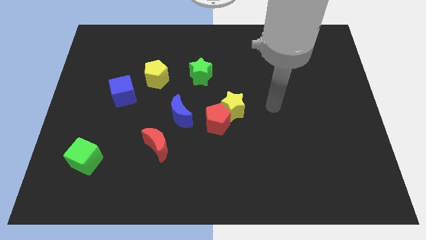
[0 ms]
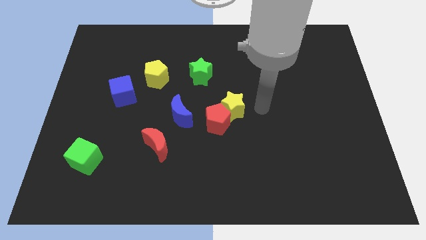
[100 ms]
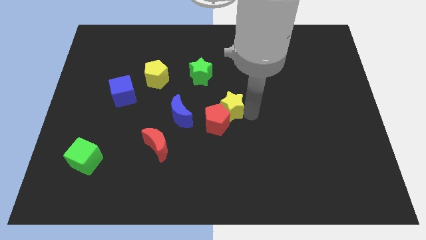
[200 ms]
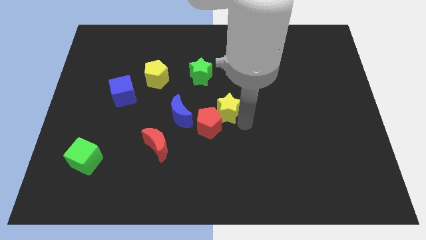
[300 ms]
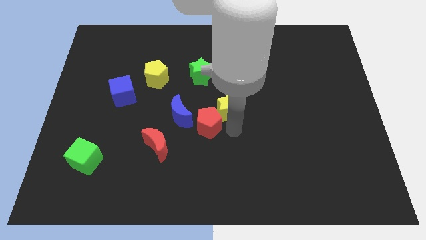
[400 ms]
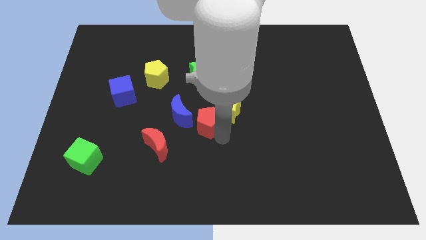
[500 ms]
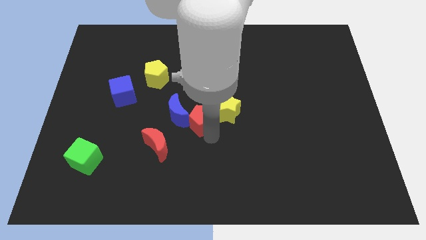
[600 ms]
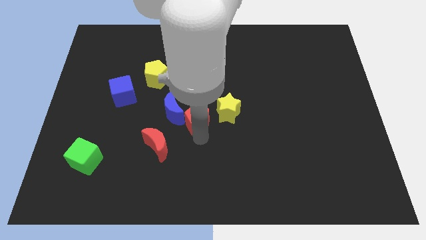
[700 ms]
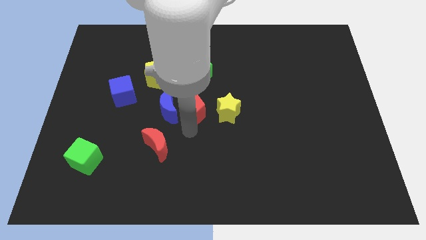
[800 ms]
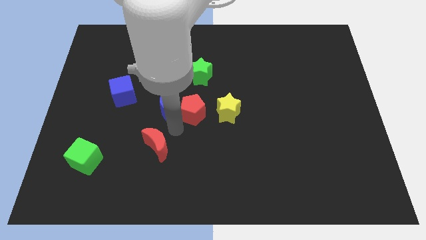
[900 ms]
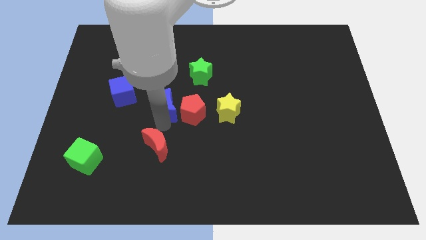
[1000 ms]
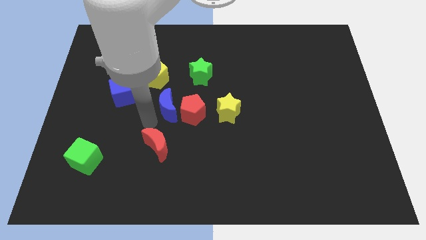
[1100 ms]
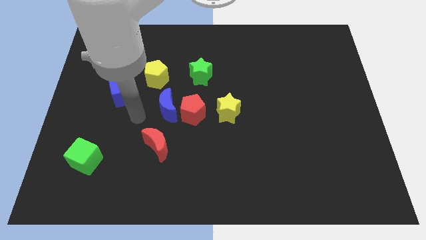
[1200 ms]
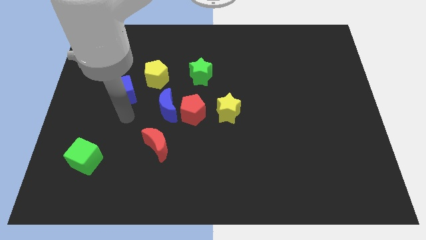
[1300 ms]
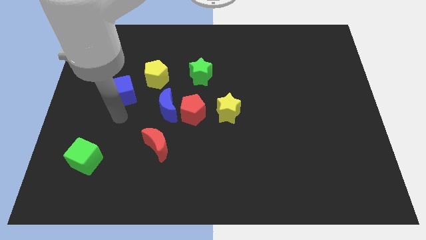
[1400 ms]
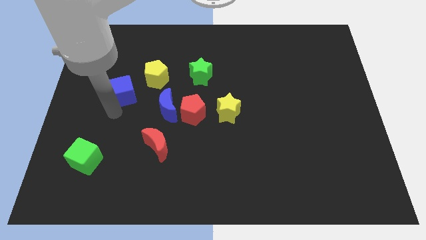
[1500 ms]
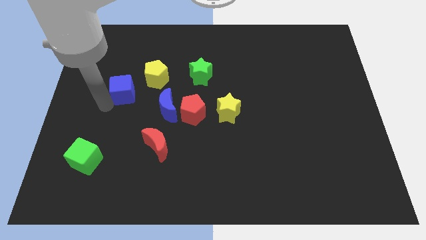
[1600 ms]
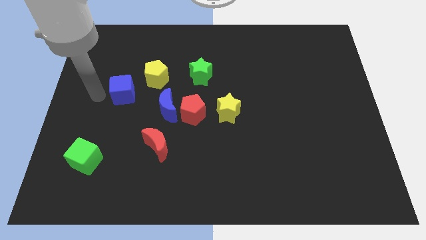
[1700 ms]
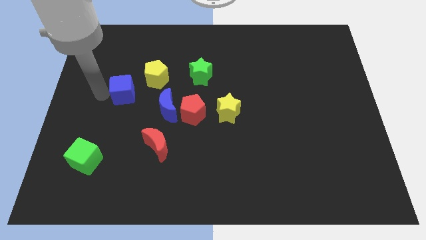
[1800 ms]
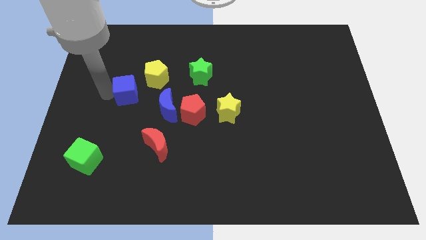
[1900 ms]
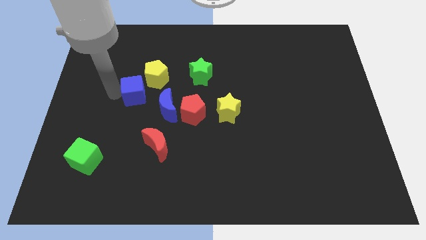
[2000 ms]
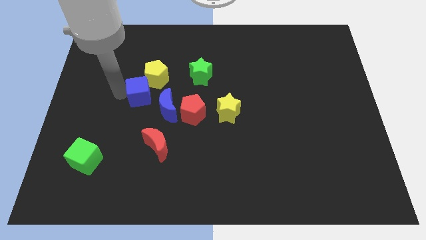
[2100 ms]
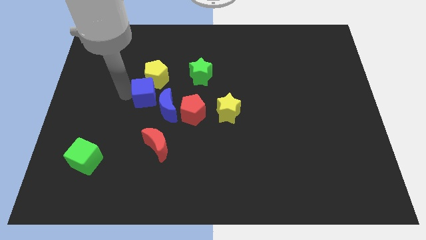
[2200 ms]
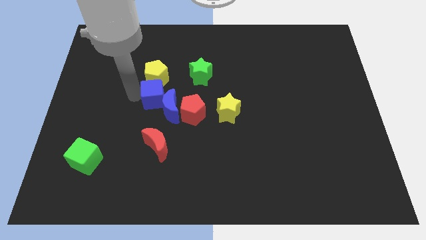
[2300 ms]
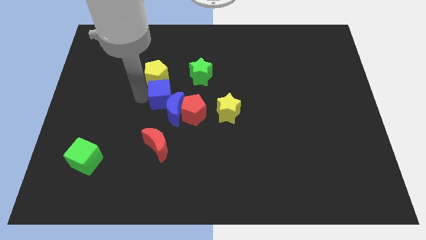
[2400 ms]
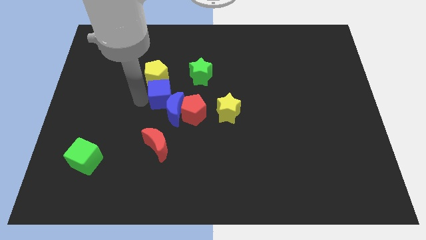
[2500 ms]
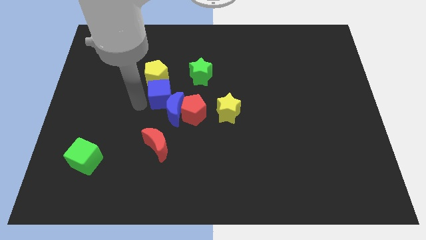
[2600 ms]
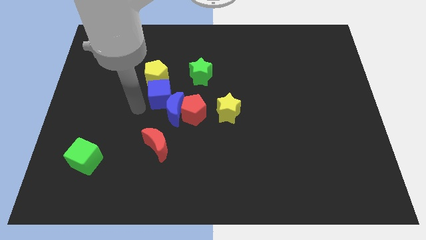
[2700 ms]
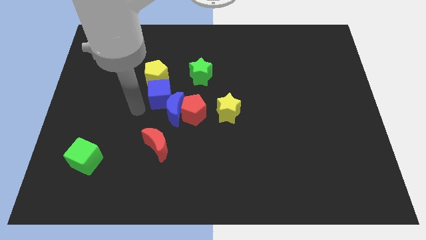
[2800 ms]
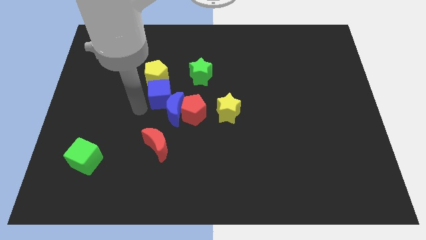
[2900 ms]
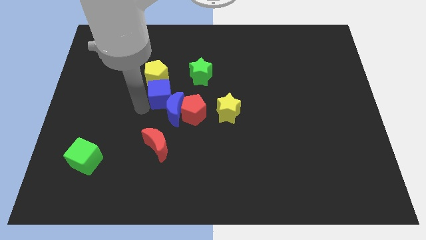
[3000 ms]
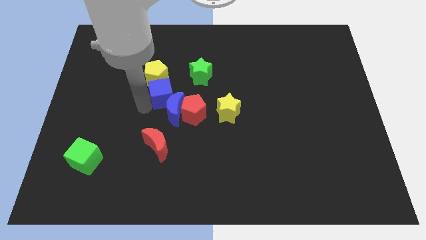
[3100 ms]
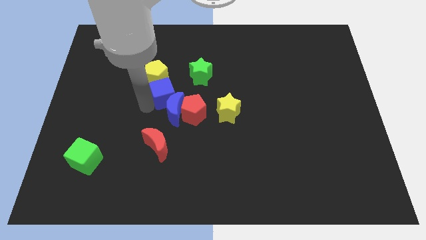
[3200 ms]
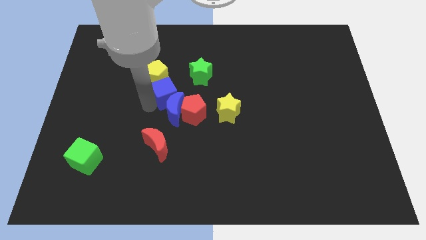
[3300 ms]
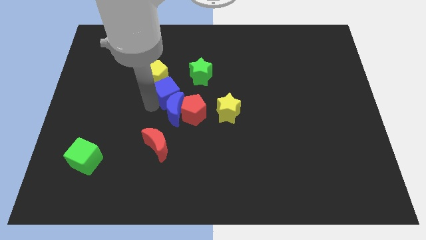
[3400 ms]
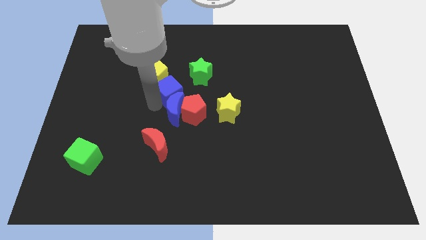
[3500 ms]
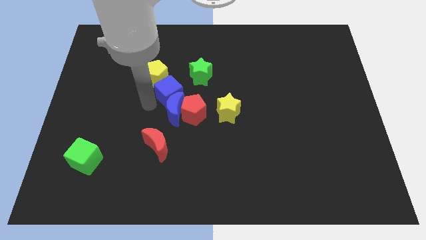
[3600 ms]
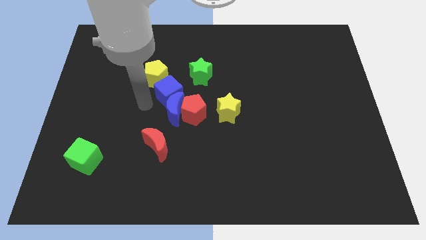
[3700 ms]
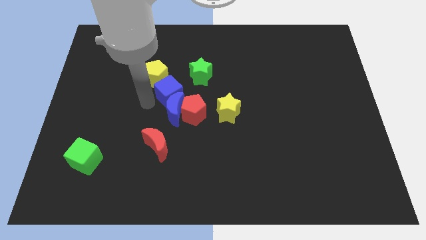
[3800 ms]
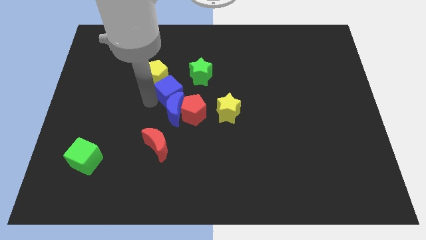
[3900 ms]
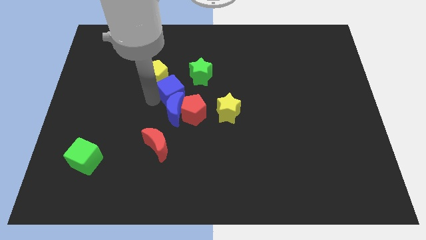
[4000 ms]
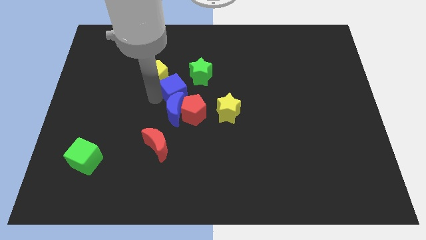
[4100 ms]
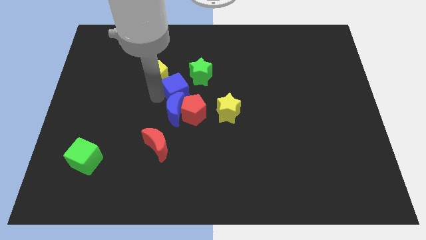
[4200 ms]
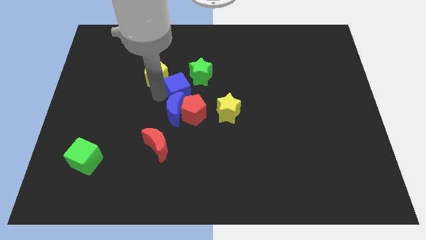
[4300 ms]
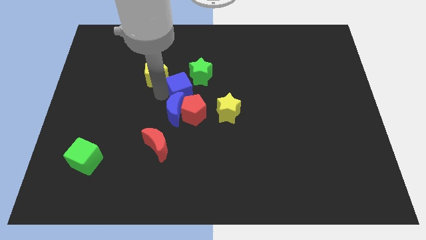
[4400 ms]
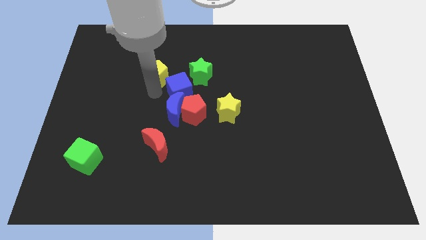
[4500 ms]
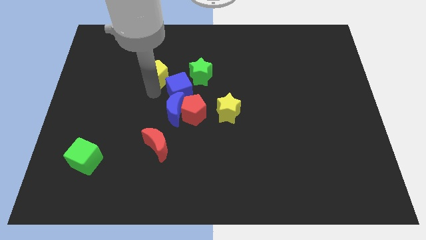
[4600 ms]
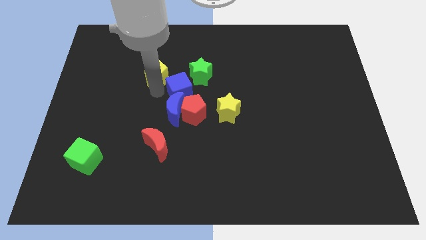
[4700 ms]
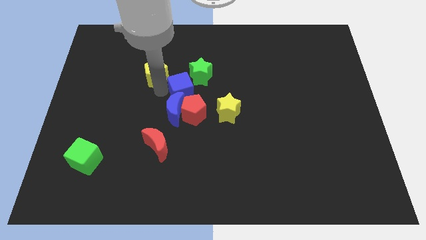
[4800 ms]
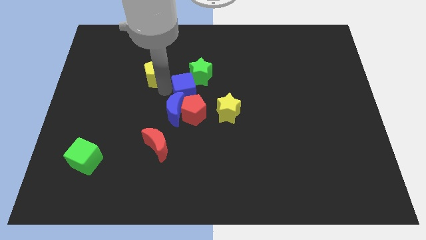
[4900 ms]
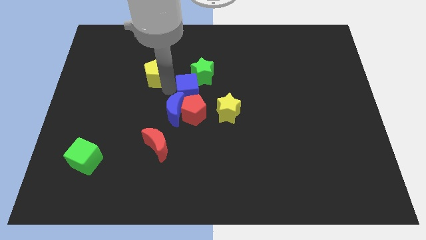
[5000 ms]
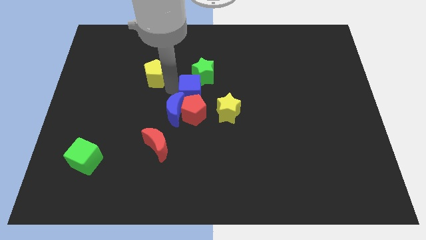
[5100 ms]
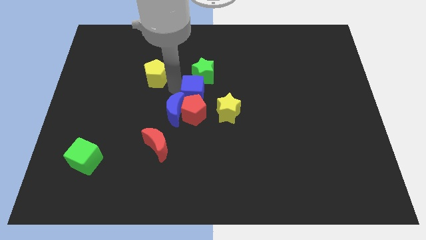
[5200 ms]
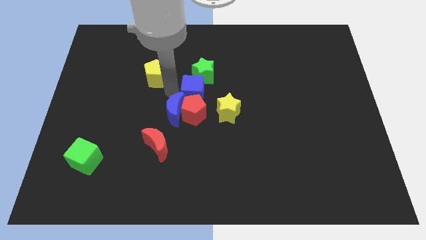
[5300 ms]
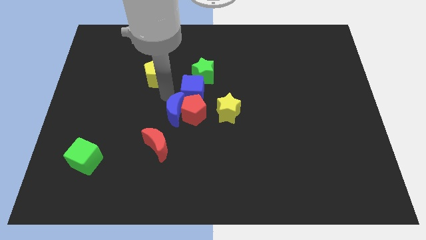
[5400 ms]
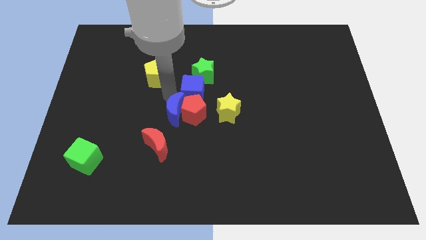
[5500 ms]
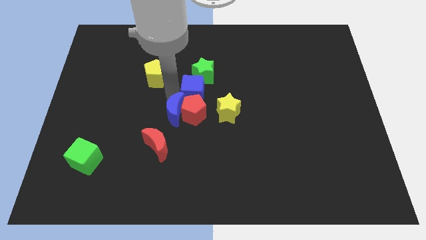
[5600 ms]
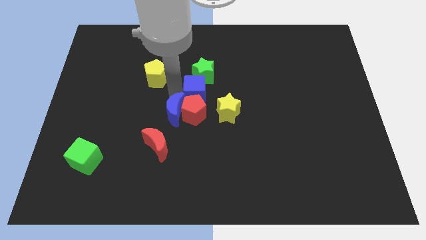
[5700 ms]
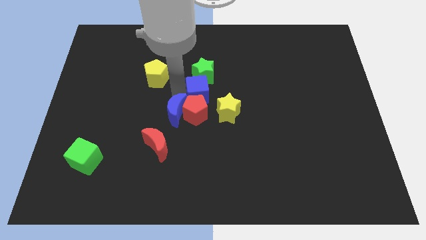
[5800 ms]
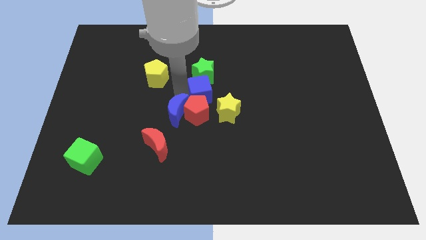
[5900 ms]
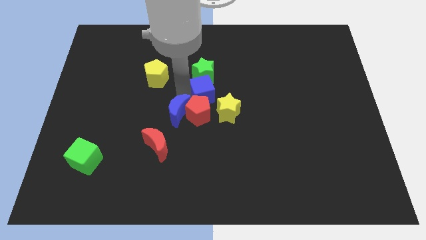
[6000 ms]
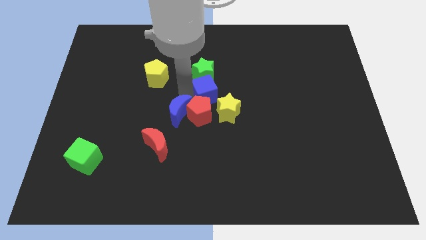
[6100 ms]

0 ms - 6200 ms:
move the blue cube right

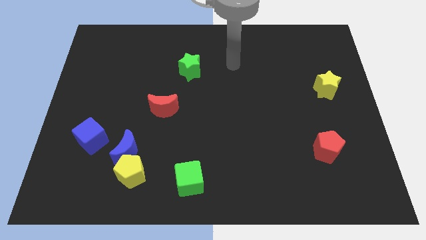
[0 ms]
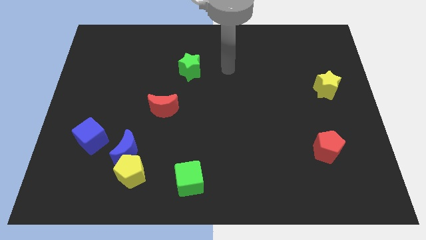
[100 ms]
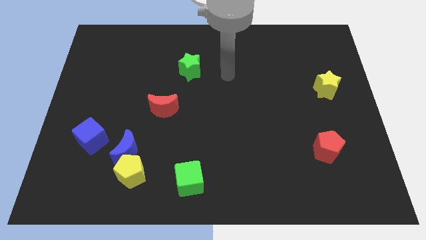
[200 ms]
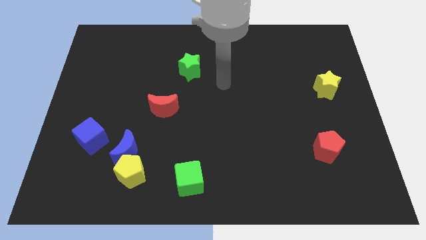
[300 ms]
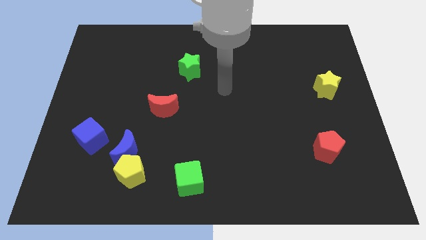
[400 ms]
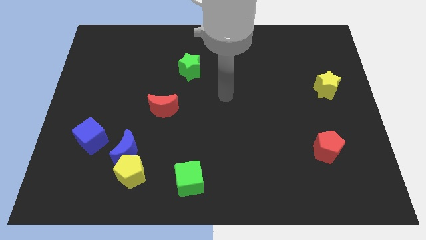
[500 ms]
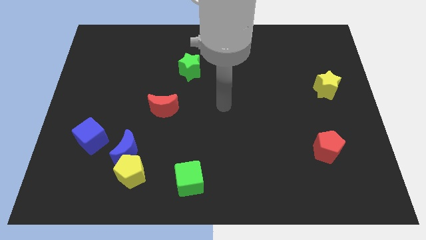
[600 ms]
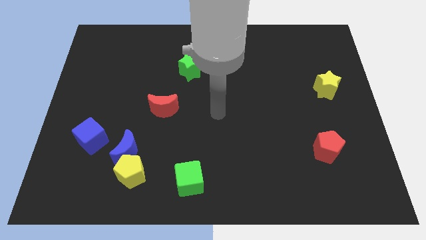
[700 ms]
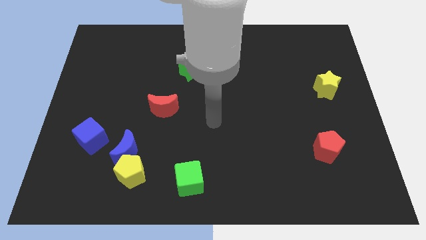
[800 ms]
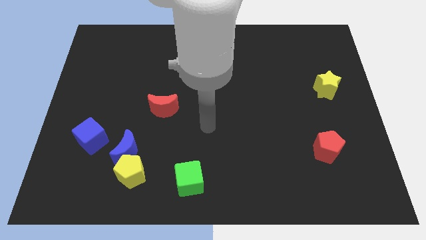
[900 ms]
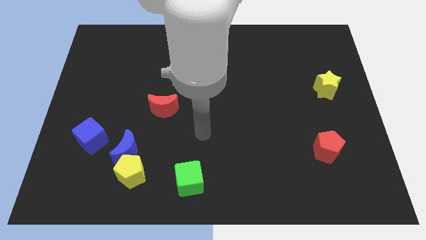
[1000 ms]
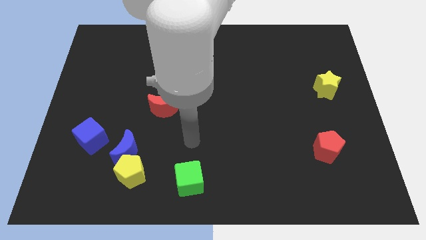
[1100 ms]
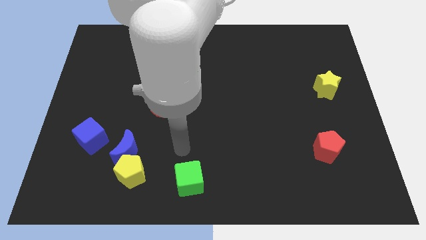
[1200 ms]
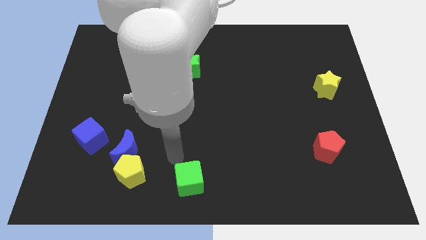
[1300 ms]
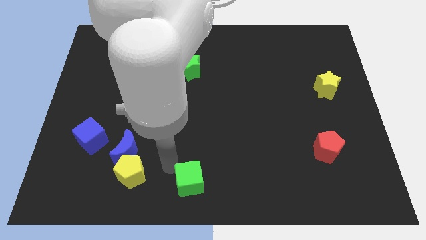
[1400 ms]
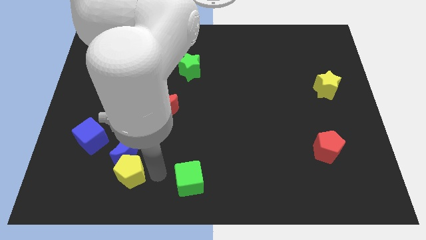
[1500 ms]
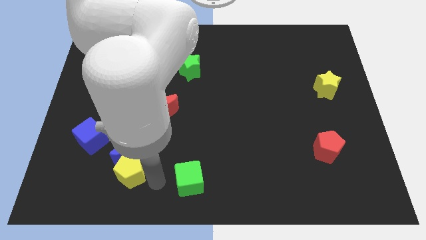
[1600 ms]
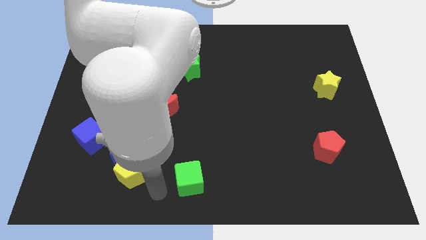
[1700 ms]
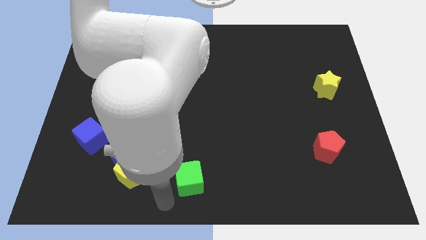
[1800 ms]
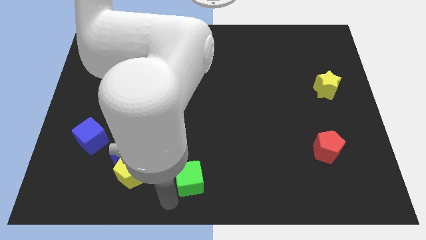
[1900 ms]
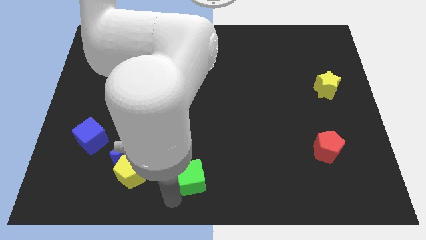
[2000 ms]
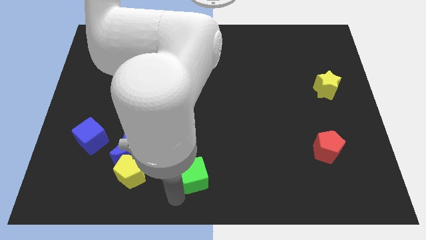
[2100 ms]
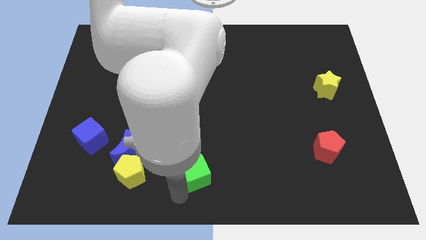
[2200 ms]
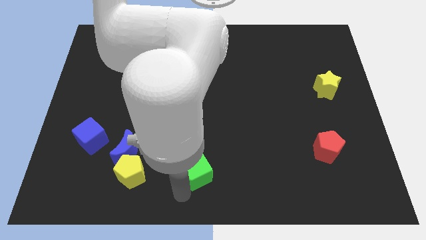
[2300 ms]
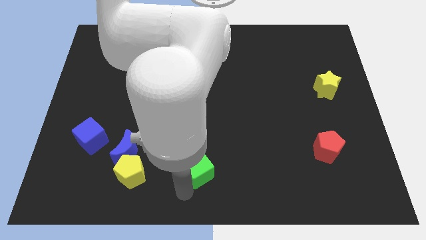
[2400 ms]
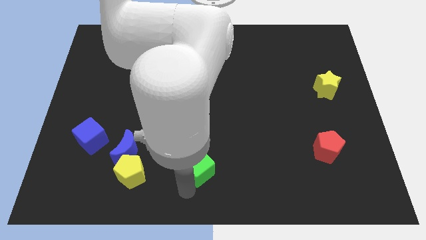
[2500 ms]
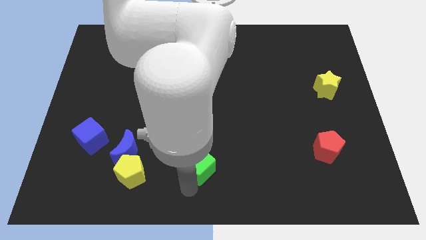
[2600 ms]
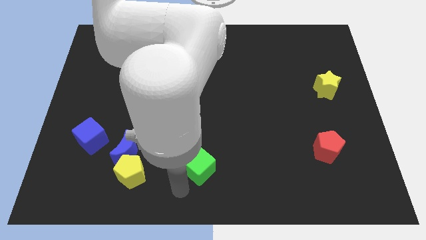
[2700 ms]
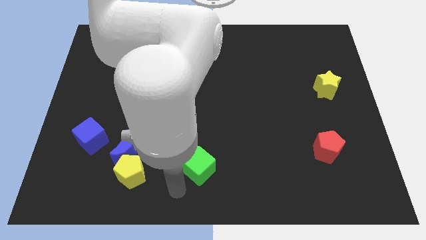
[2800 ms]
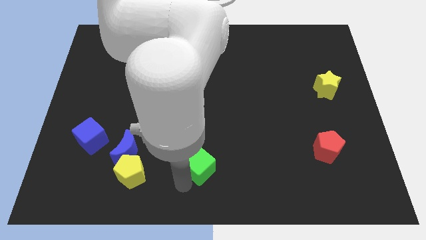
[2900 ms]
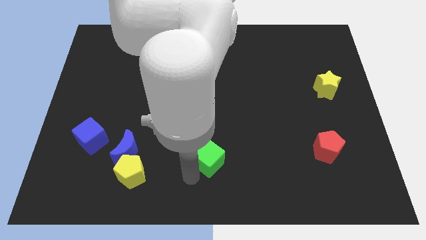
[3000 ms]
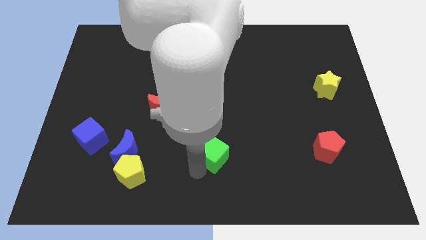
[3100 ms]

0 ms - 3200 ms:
move the green cube a little bit up and to the right diagonally
